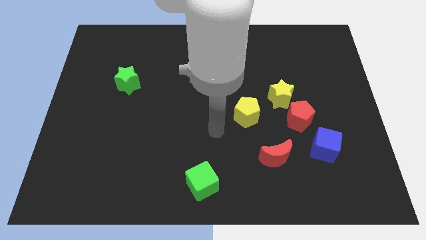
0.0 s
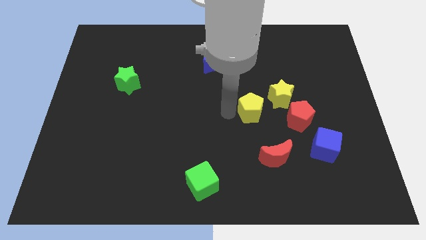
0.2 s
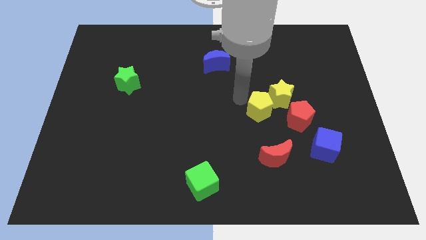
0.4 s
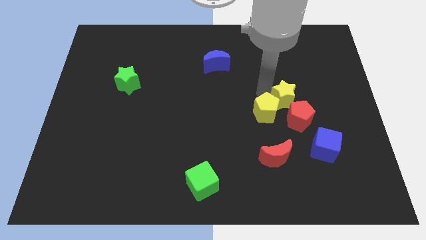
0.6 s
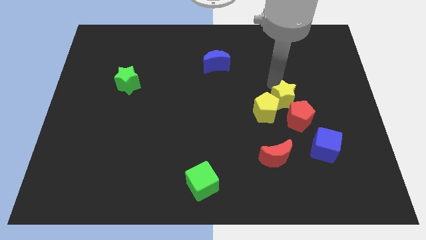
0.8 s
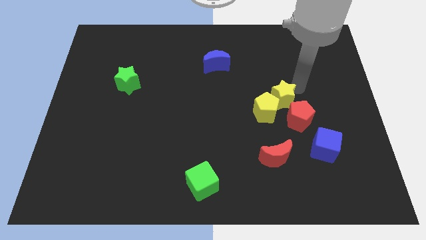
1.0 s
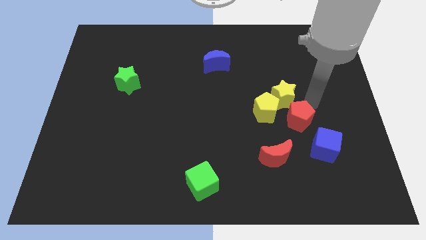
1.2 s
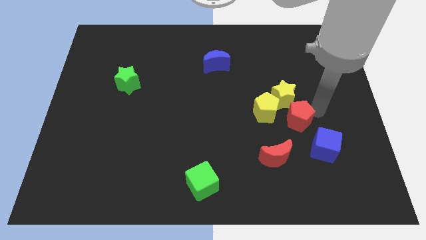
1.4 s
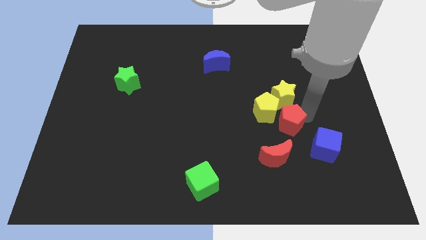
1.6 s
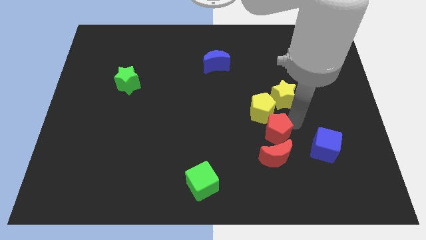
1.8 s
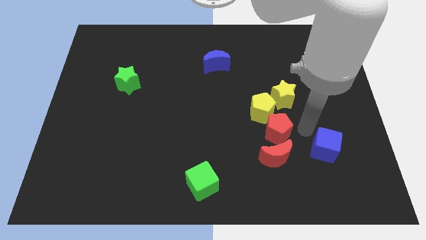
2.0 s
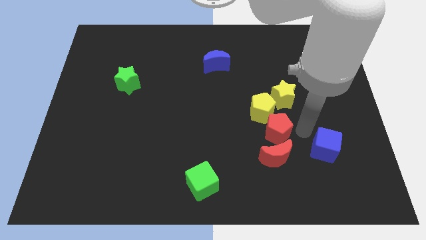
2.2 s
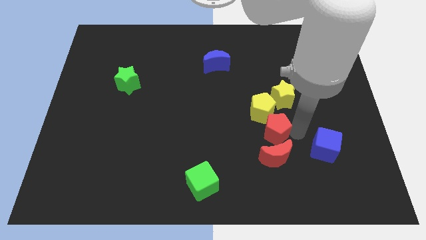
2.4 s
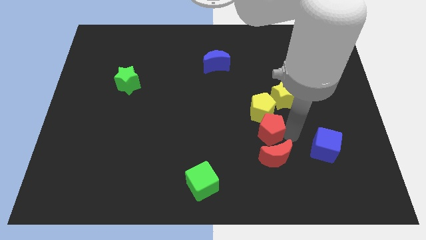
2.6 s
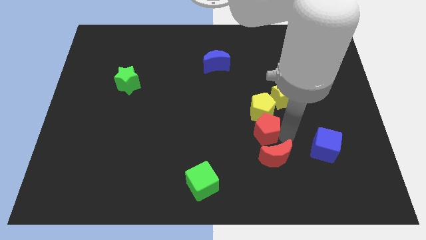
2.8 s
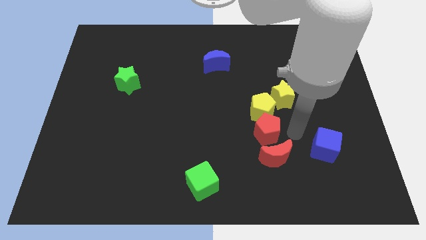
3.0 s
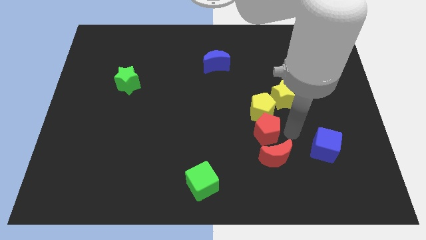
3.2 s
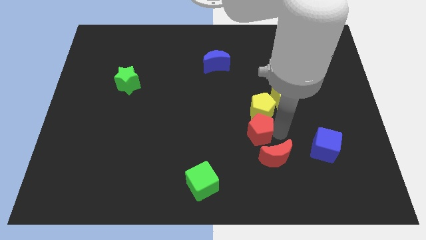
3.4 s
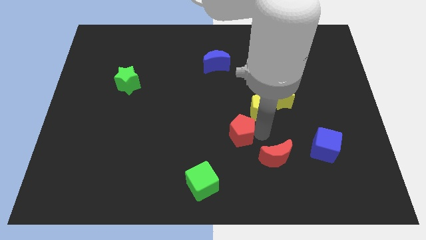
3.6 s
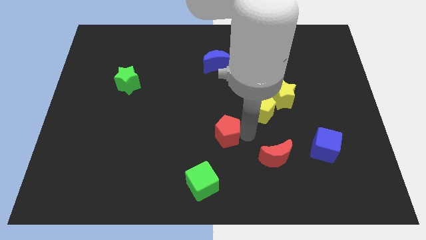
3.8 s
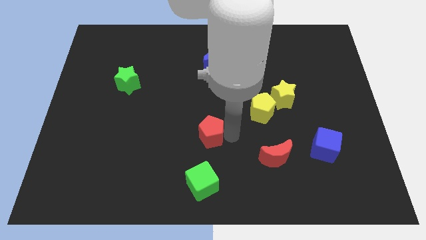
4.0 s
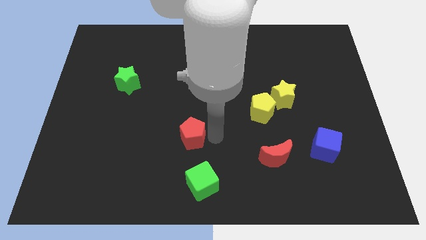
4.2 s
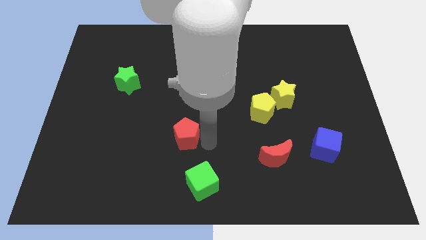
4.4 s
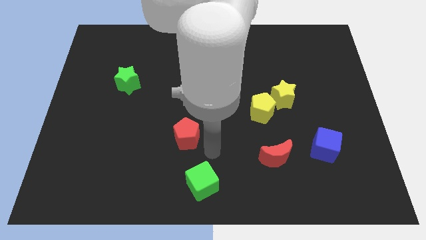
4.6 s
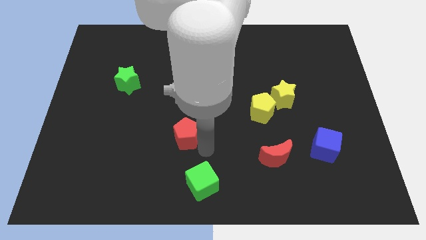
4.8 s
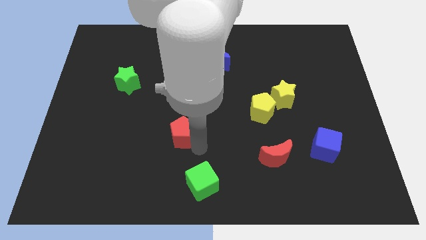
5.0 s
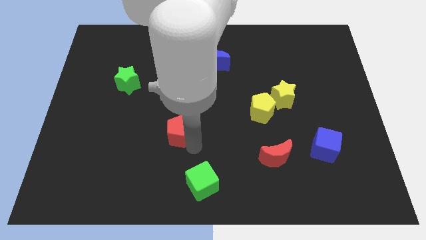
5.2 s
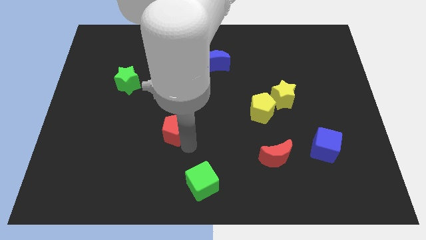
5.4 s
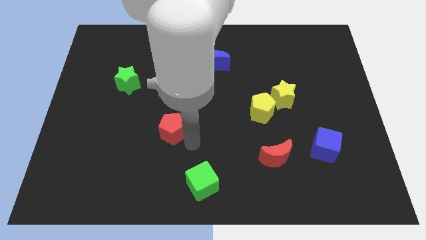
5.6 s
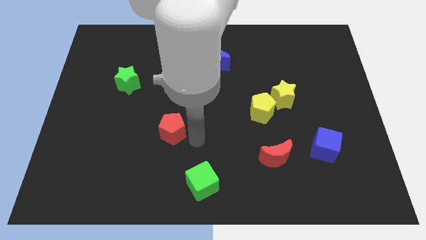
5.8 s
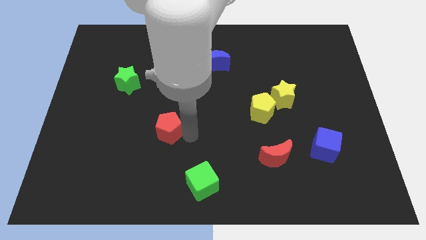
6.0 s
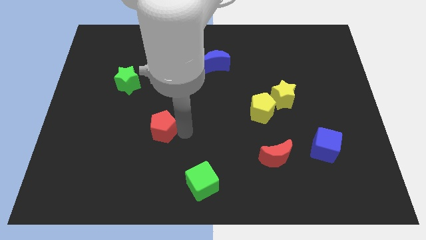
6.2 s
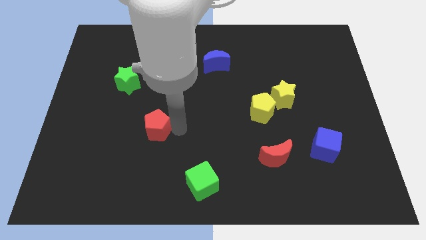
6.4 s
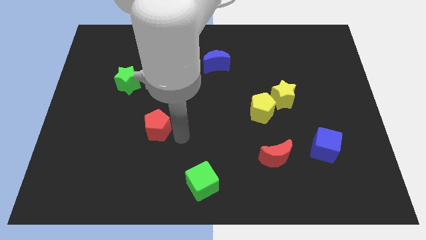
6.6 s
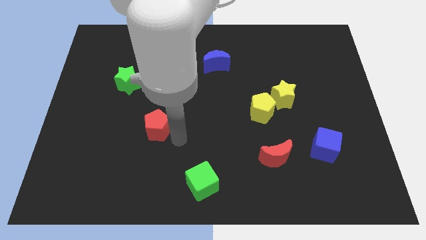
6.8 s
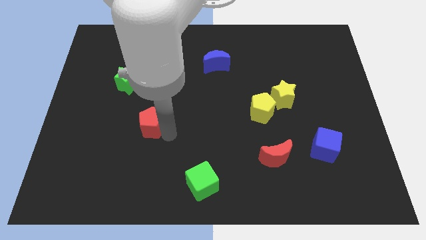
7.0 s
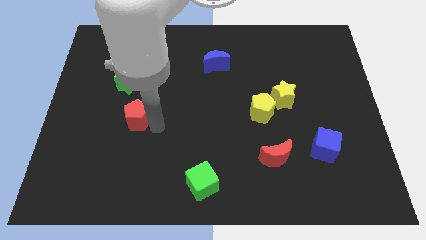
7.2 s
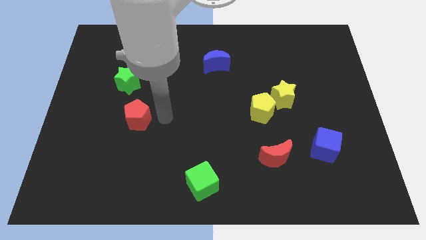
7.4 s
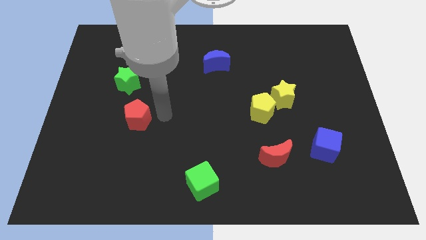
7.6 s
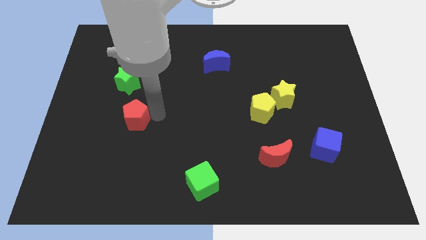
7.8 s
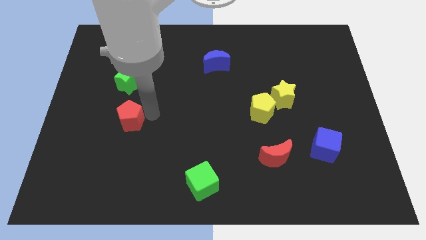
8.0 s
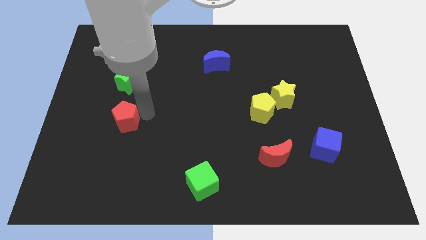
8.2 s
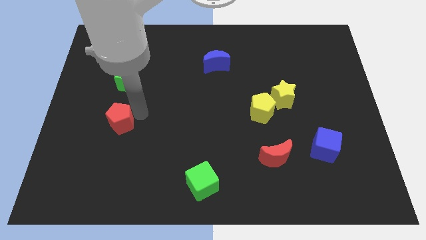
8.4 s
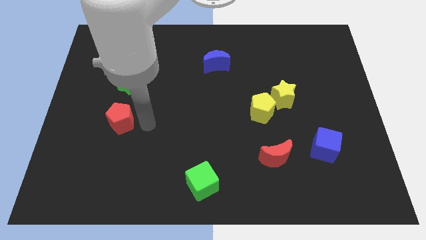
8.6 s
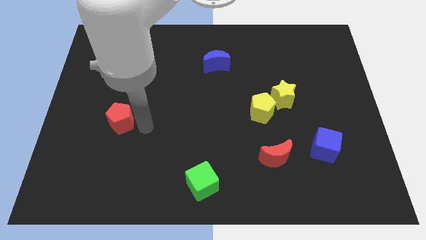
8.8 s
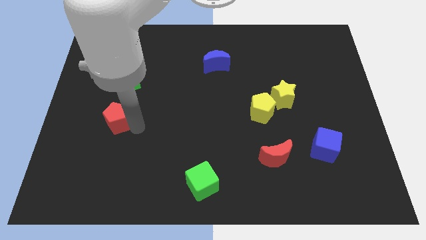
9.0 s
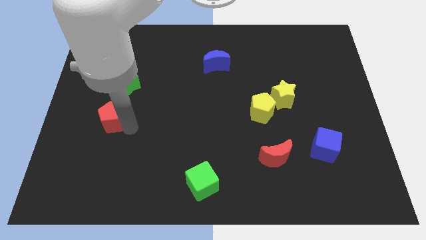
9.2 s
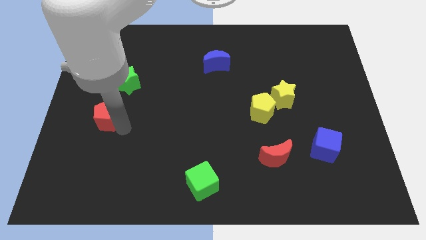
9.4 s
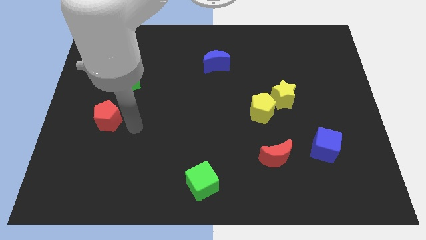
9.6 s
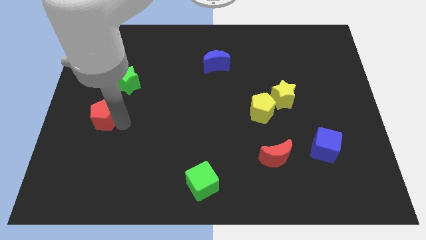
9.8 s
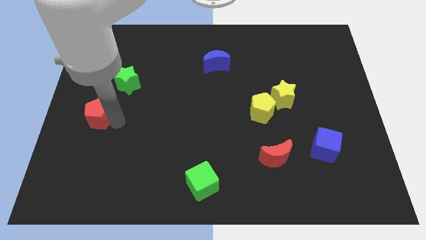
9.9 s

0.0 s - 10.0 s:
put the red pentagon to the left side

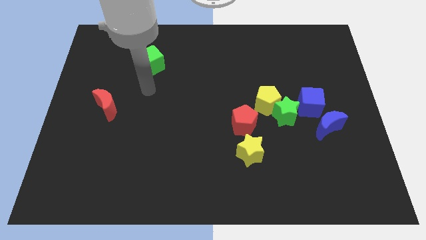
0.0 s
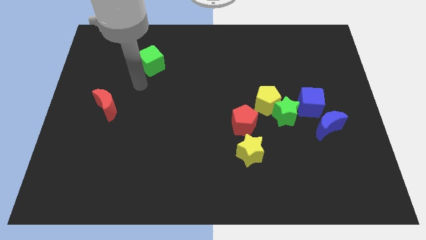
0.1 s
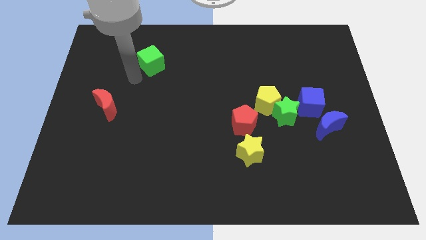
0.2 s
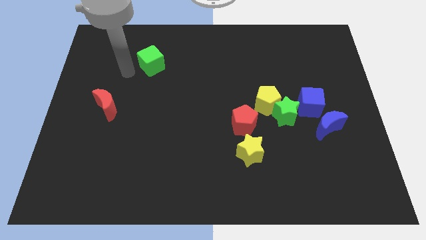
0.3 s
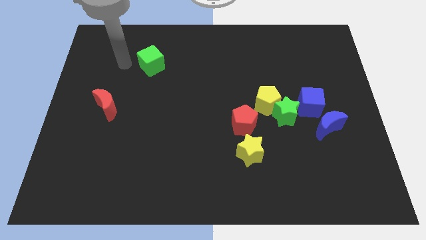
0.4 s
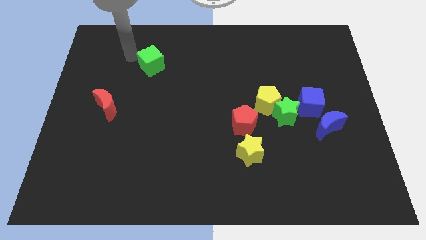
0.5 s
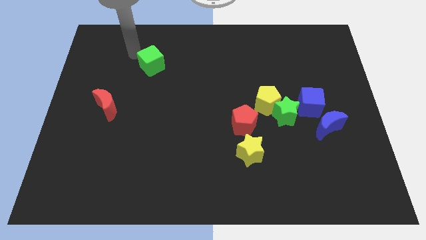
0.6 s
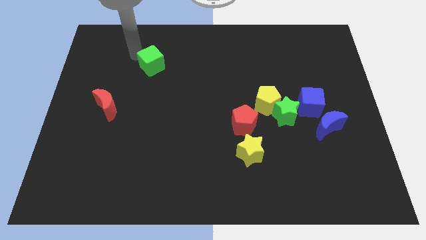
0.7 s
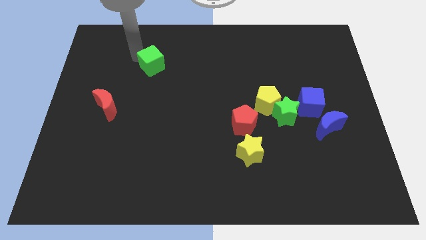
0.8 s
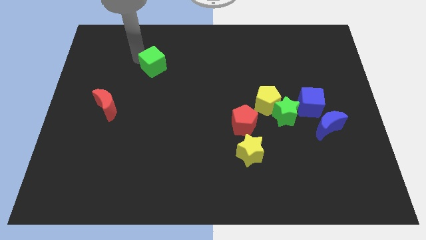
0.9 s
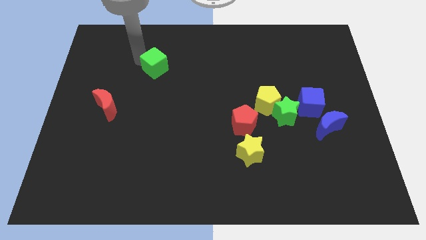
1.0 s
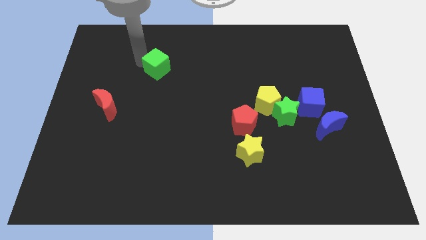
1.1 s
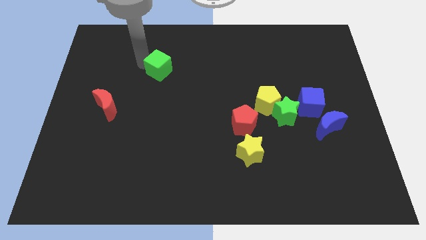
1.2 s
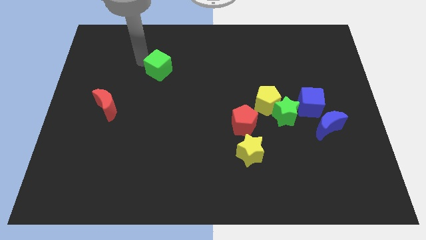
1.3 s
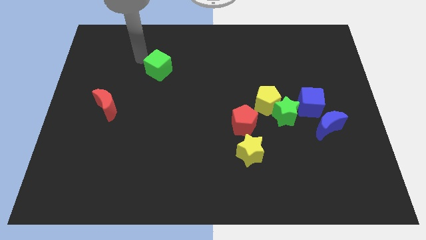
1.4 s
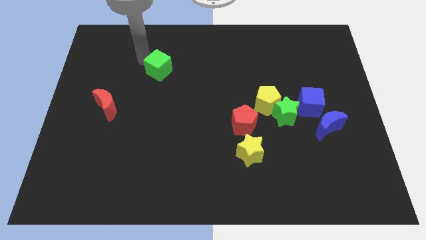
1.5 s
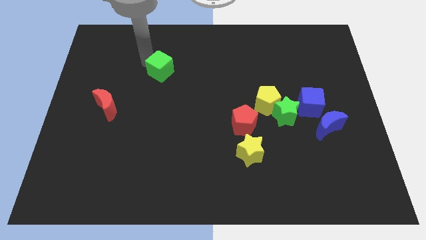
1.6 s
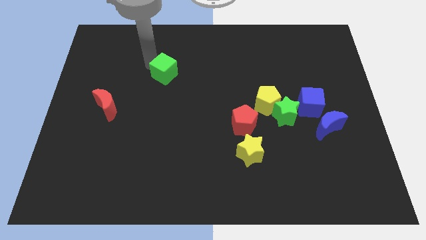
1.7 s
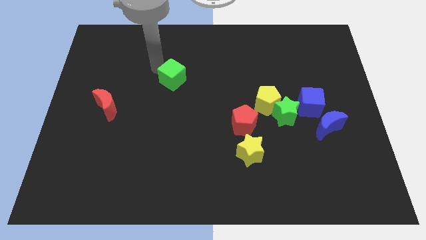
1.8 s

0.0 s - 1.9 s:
move the green cube to the middle
